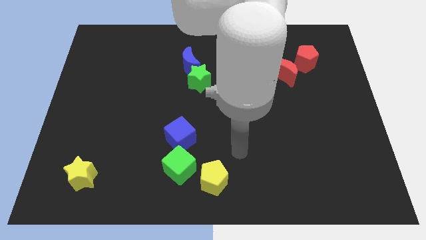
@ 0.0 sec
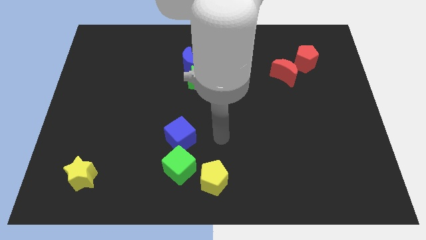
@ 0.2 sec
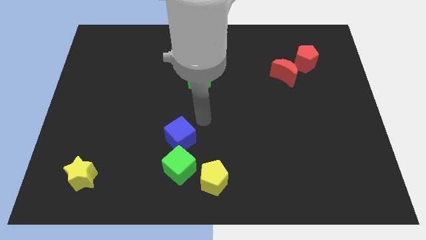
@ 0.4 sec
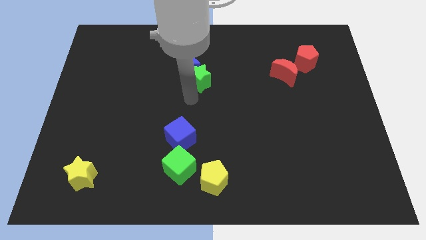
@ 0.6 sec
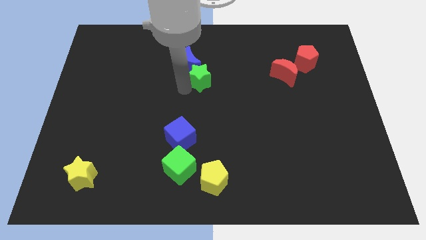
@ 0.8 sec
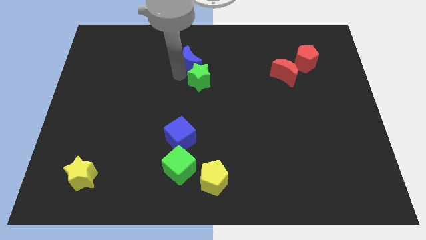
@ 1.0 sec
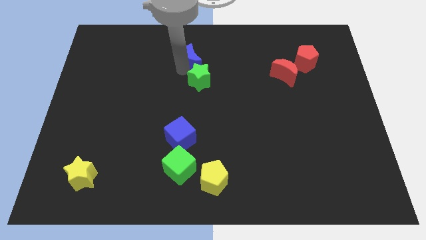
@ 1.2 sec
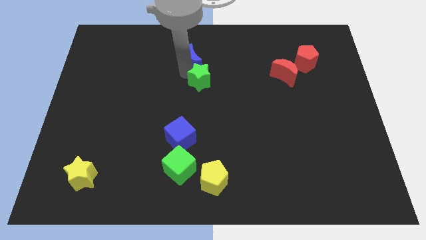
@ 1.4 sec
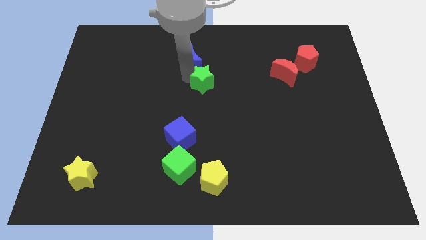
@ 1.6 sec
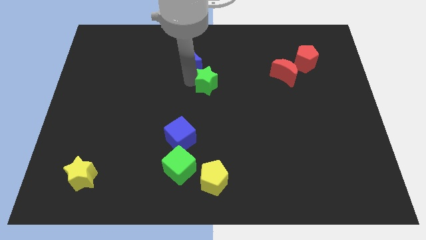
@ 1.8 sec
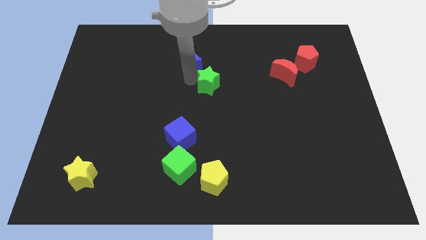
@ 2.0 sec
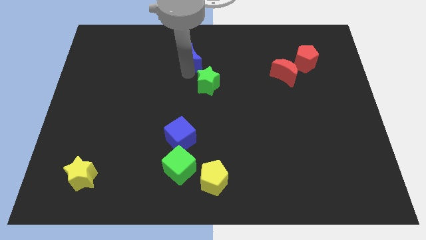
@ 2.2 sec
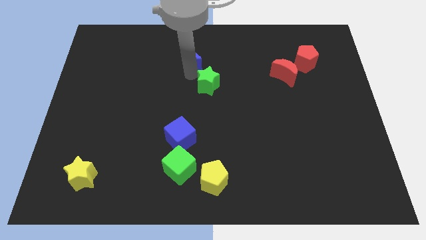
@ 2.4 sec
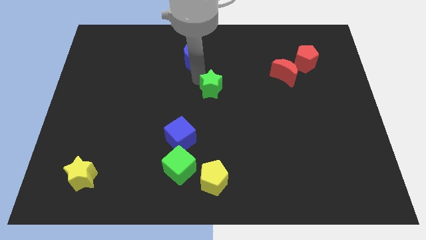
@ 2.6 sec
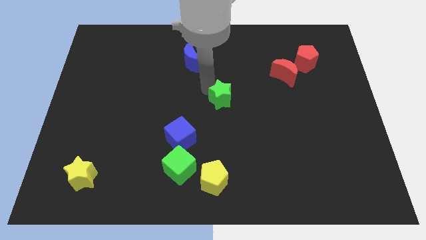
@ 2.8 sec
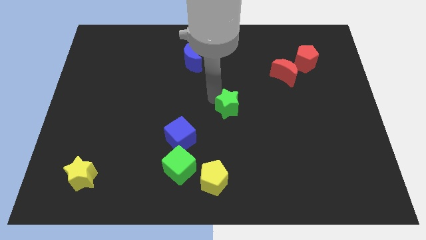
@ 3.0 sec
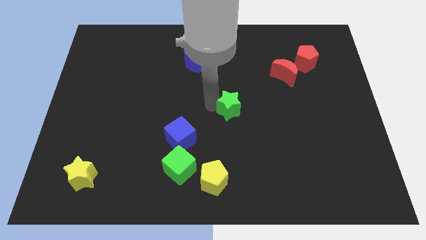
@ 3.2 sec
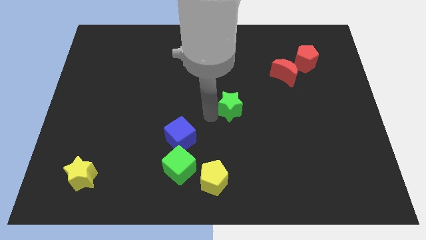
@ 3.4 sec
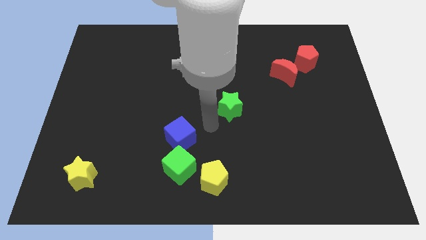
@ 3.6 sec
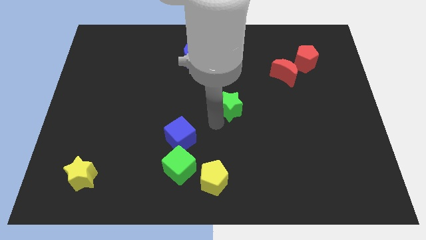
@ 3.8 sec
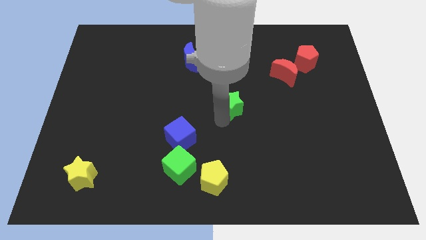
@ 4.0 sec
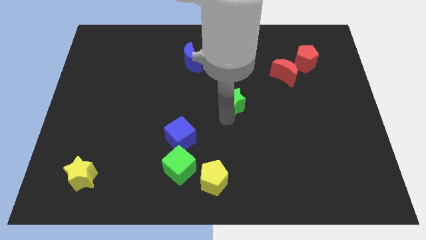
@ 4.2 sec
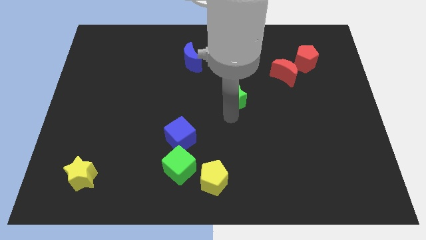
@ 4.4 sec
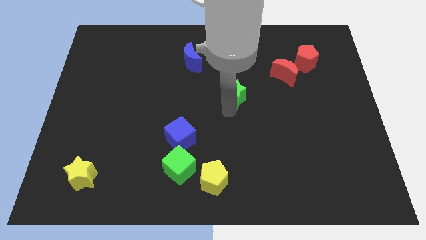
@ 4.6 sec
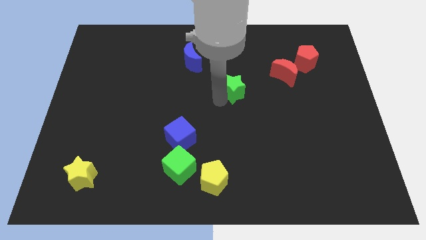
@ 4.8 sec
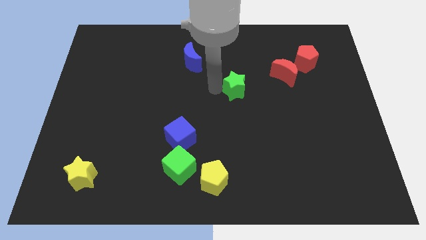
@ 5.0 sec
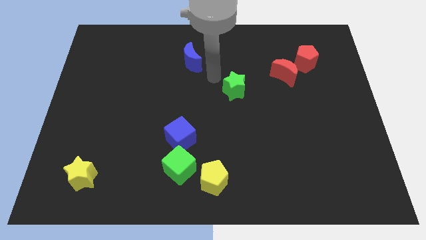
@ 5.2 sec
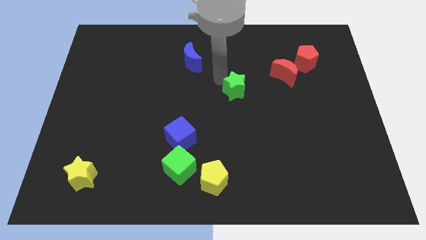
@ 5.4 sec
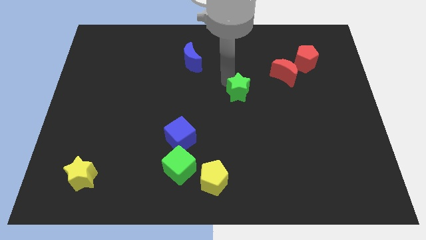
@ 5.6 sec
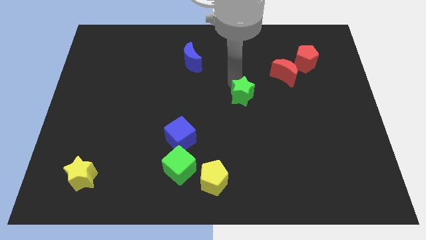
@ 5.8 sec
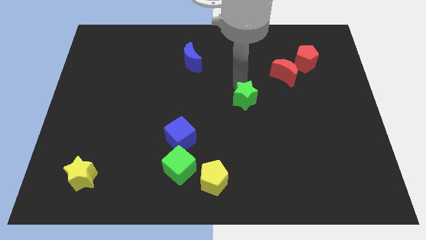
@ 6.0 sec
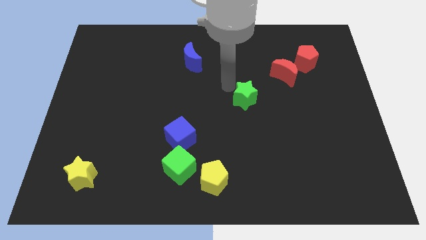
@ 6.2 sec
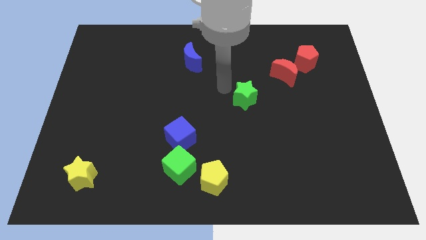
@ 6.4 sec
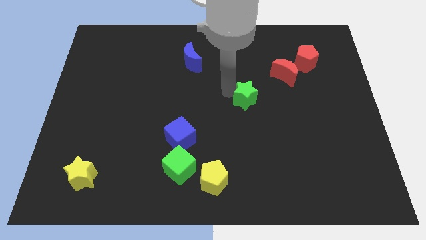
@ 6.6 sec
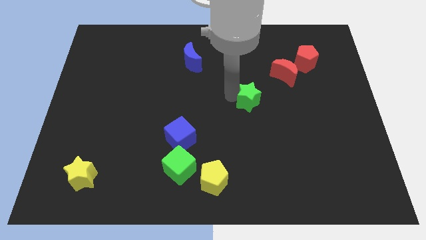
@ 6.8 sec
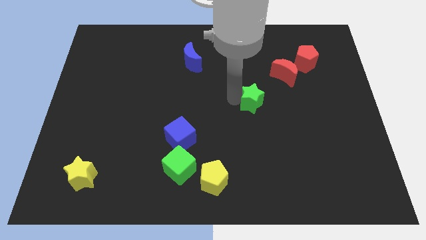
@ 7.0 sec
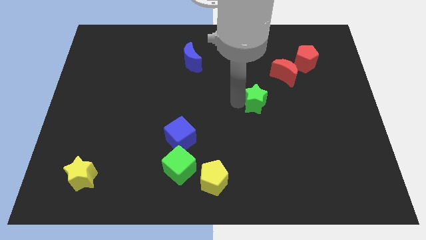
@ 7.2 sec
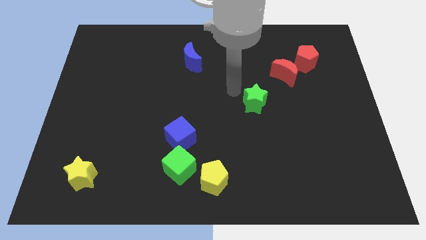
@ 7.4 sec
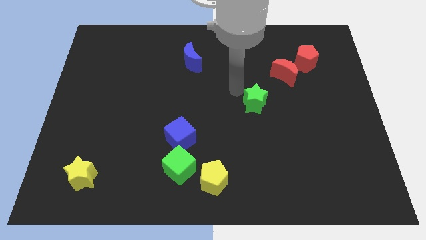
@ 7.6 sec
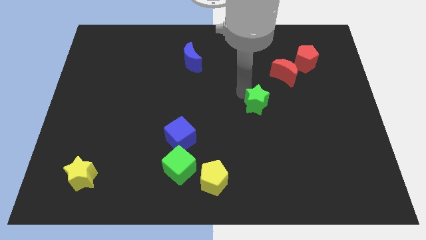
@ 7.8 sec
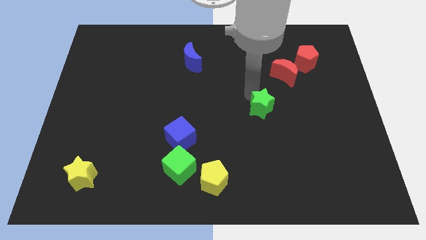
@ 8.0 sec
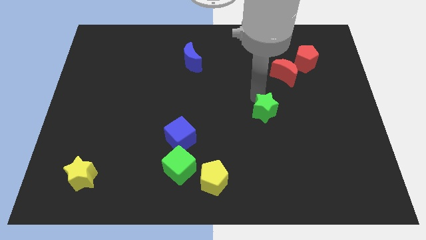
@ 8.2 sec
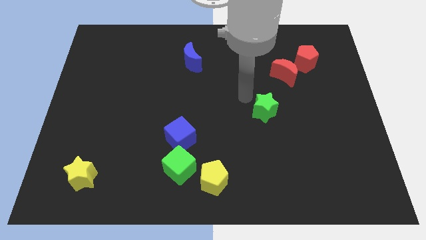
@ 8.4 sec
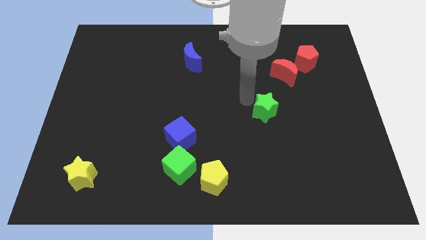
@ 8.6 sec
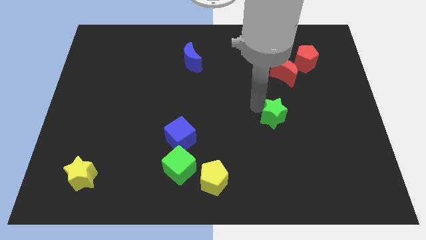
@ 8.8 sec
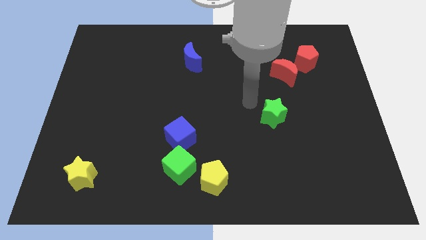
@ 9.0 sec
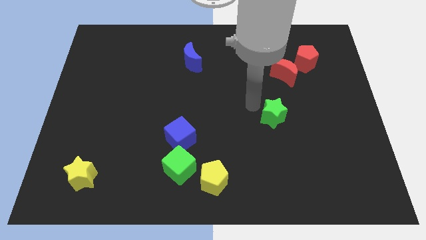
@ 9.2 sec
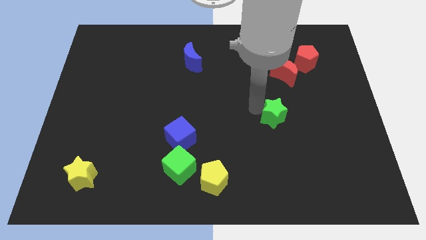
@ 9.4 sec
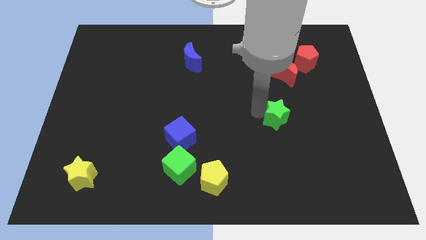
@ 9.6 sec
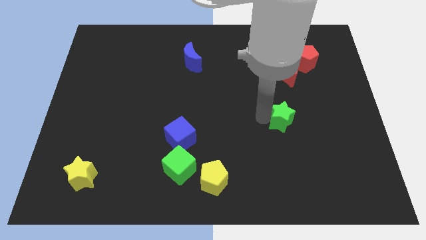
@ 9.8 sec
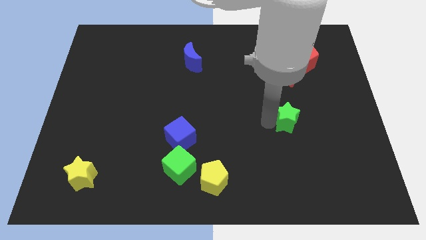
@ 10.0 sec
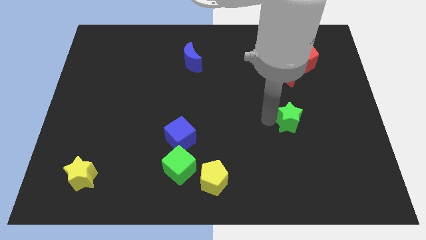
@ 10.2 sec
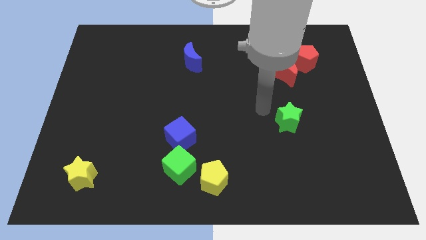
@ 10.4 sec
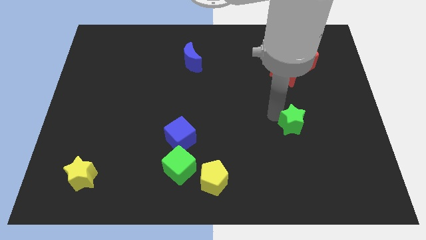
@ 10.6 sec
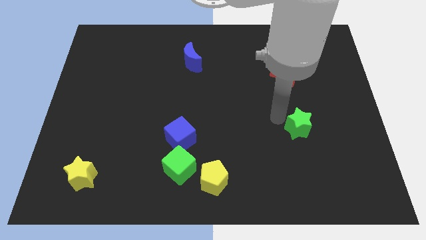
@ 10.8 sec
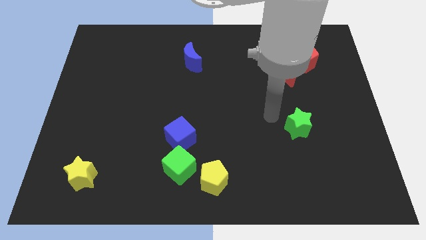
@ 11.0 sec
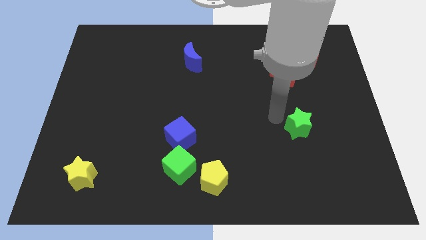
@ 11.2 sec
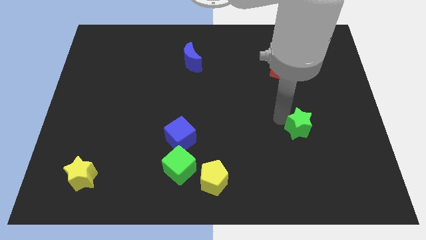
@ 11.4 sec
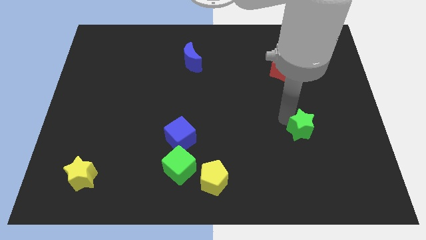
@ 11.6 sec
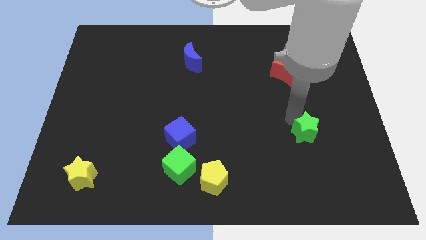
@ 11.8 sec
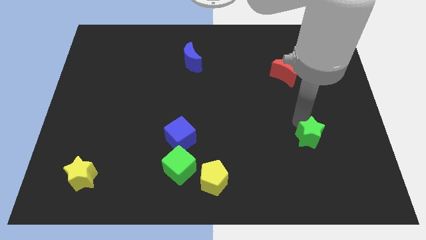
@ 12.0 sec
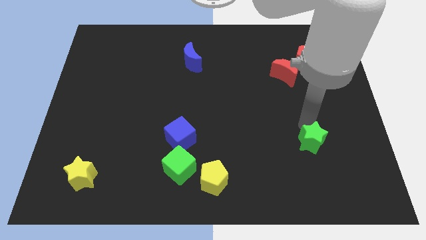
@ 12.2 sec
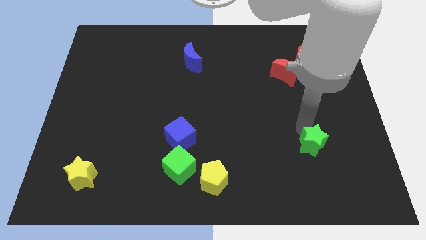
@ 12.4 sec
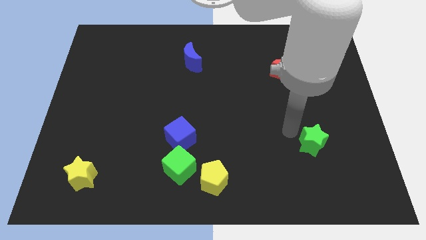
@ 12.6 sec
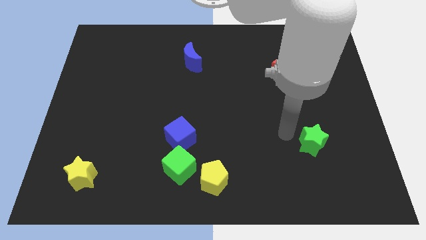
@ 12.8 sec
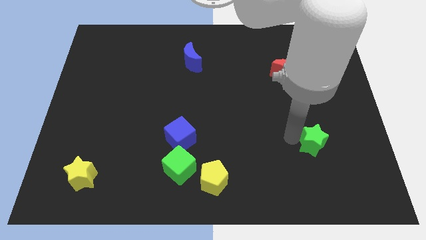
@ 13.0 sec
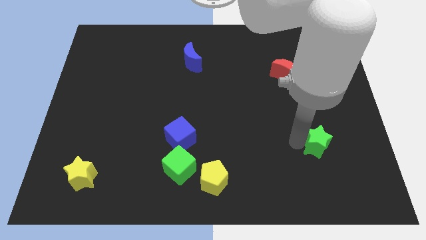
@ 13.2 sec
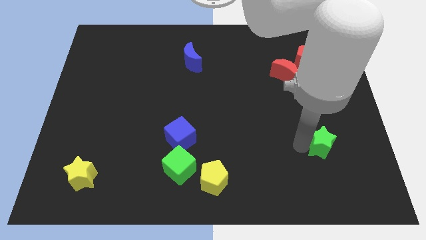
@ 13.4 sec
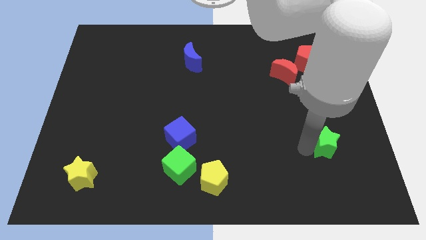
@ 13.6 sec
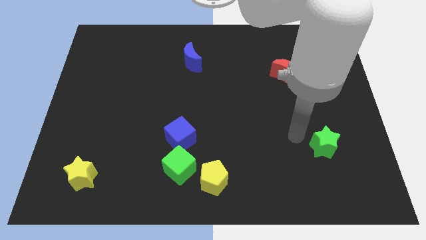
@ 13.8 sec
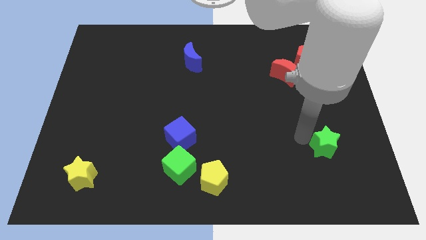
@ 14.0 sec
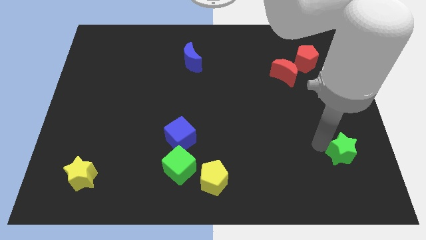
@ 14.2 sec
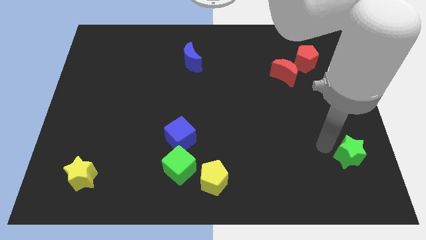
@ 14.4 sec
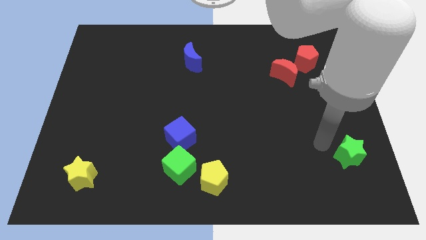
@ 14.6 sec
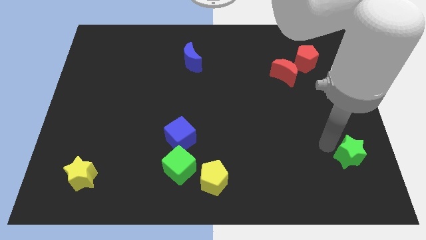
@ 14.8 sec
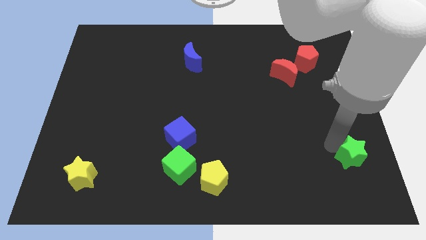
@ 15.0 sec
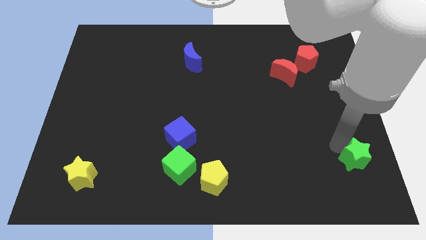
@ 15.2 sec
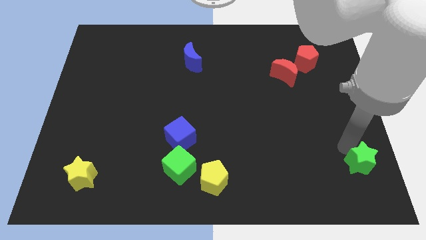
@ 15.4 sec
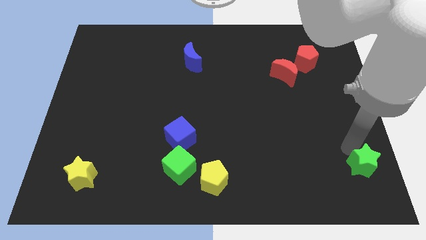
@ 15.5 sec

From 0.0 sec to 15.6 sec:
move the green star to the bottom right of the board
